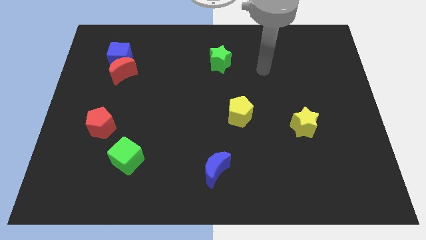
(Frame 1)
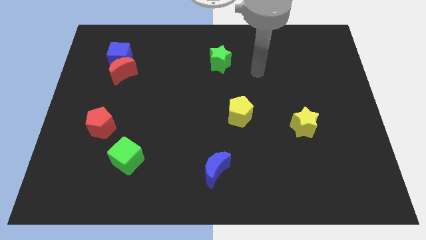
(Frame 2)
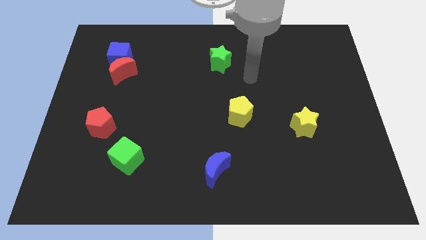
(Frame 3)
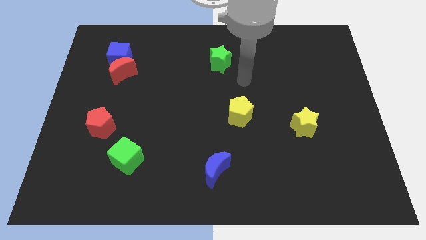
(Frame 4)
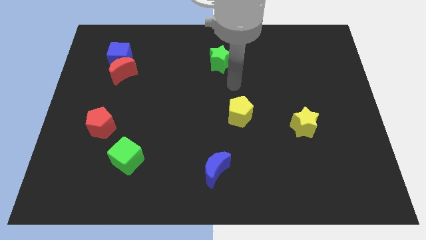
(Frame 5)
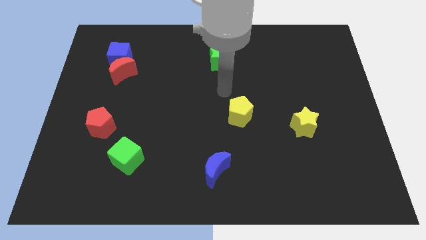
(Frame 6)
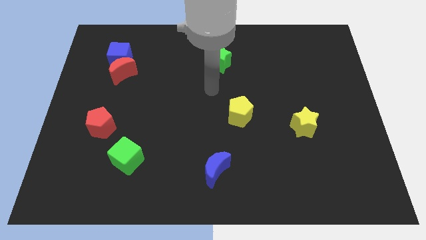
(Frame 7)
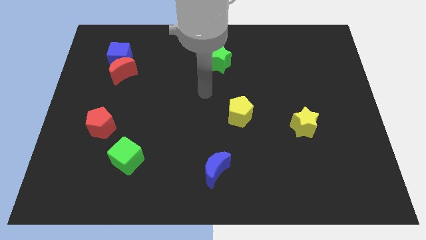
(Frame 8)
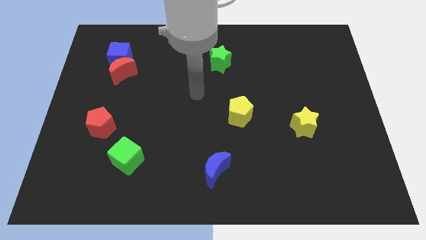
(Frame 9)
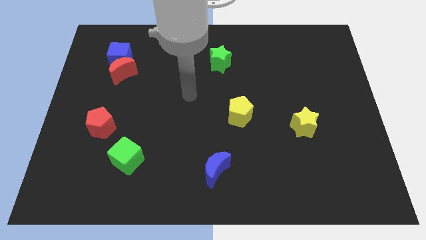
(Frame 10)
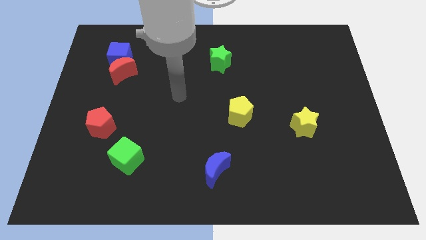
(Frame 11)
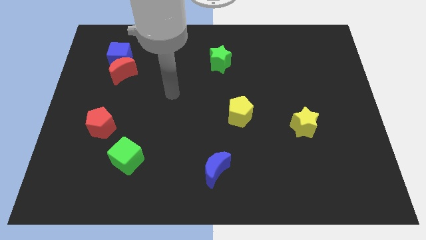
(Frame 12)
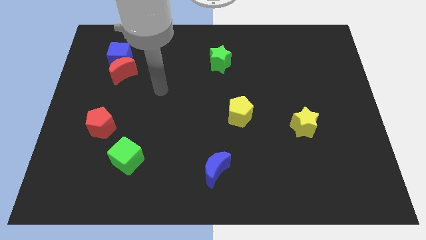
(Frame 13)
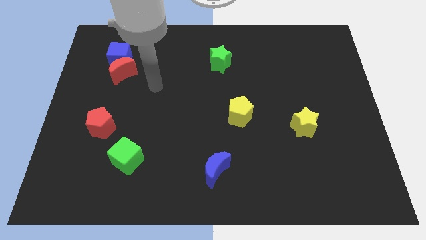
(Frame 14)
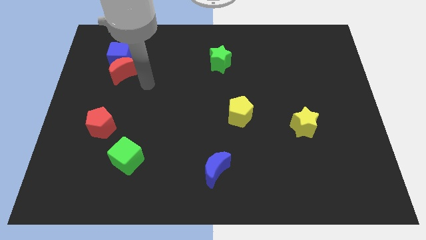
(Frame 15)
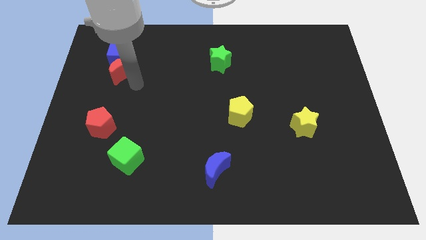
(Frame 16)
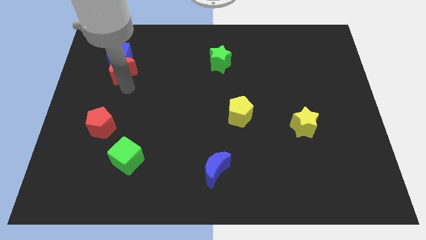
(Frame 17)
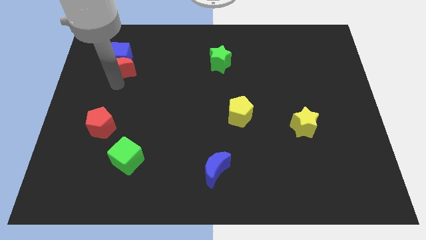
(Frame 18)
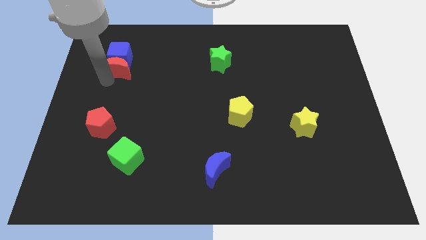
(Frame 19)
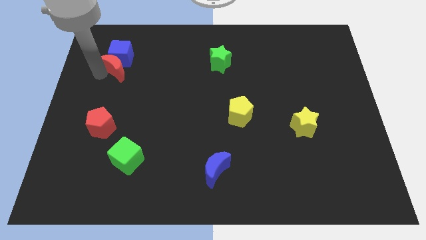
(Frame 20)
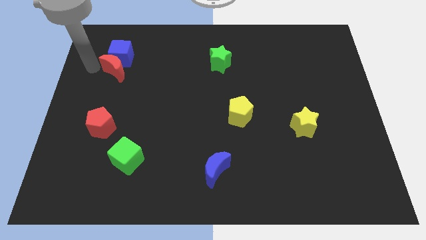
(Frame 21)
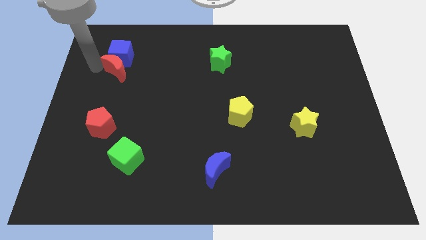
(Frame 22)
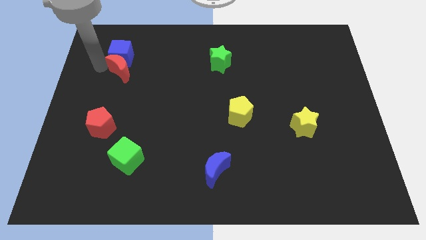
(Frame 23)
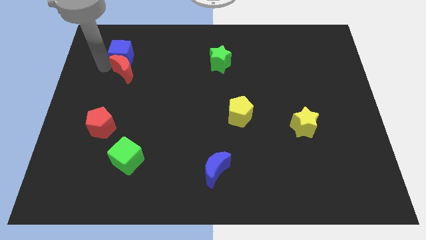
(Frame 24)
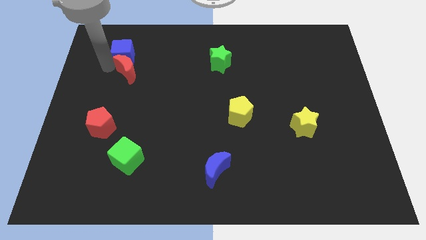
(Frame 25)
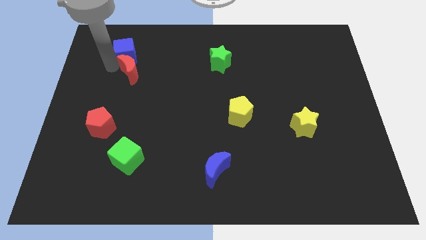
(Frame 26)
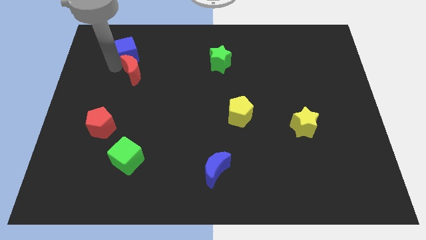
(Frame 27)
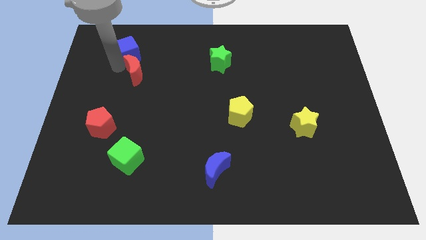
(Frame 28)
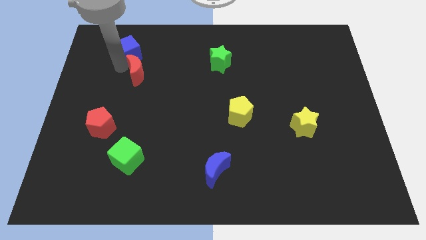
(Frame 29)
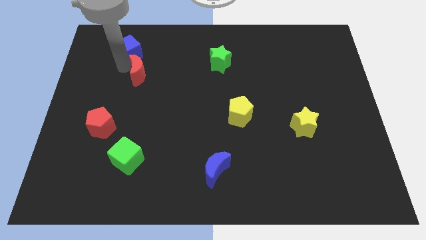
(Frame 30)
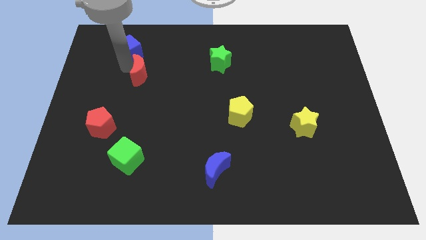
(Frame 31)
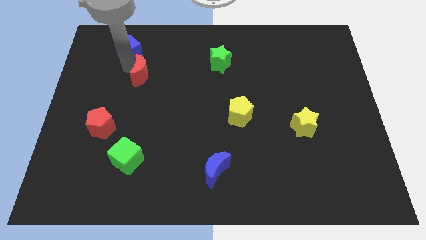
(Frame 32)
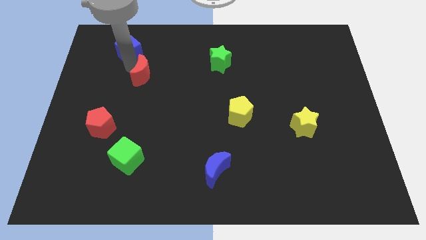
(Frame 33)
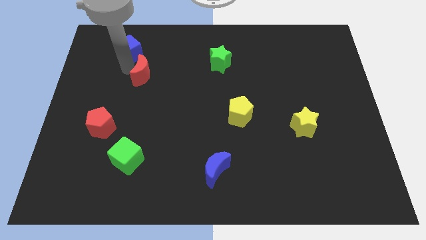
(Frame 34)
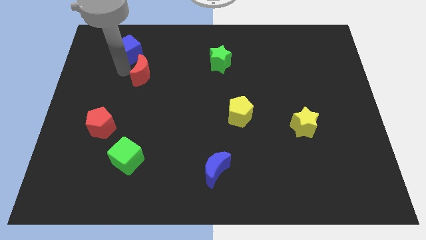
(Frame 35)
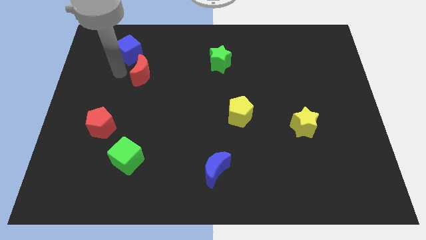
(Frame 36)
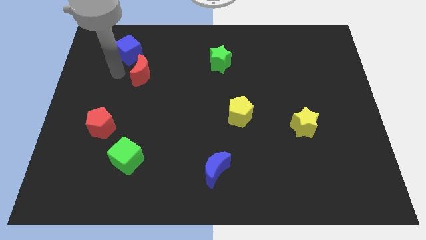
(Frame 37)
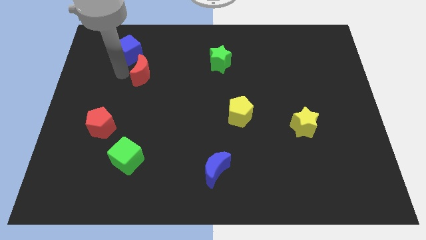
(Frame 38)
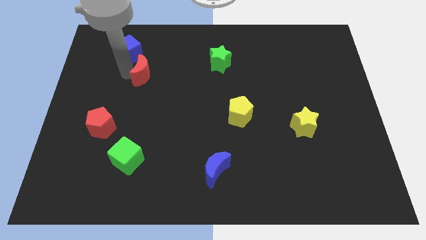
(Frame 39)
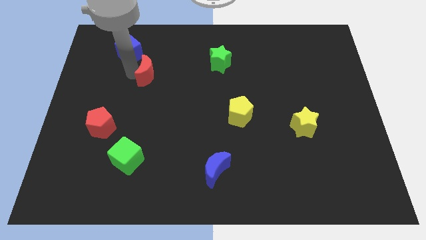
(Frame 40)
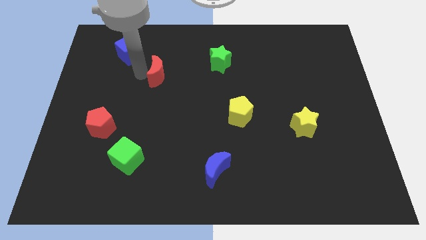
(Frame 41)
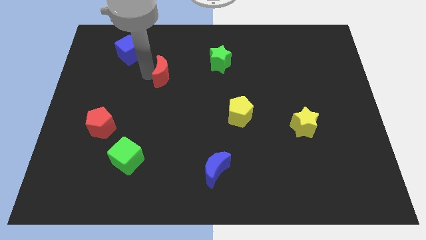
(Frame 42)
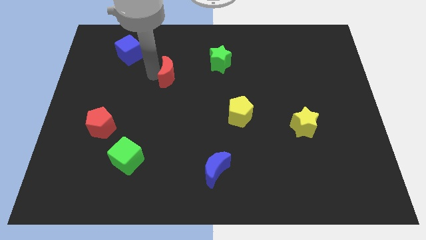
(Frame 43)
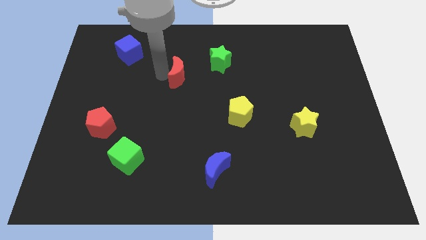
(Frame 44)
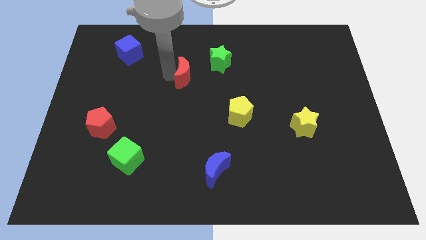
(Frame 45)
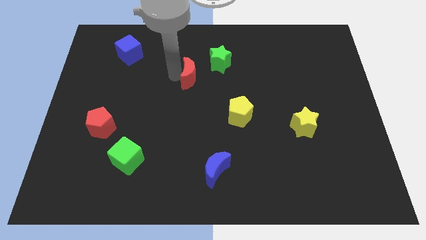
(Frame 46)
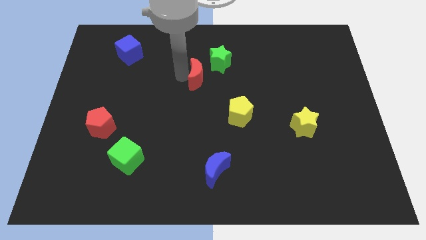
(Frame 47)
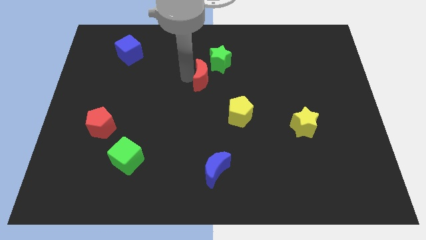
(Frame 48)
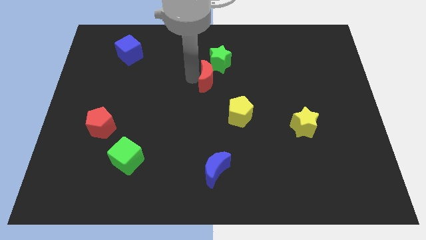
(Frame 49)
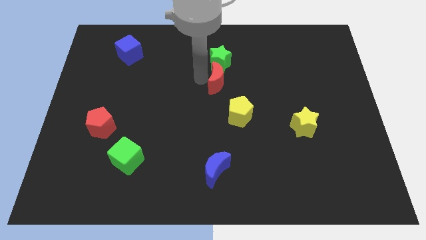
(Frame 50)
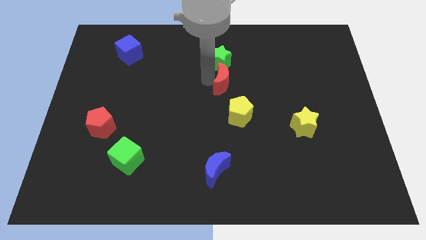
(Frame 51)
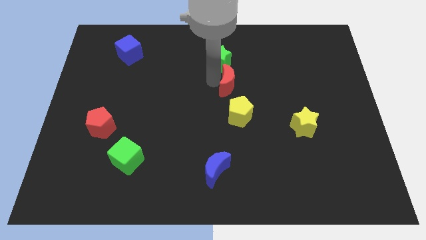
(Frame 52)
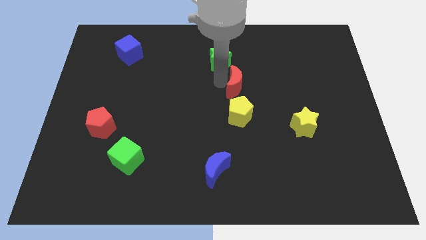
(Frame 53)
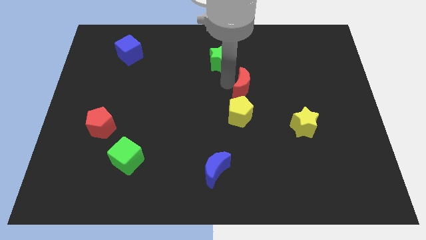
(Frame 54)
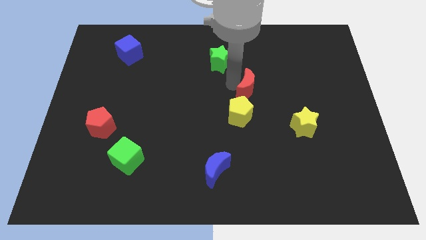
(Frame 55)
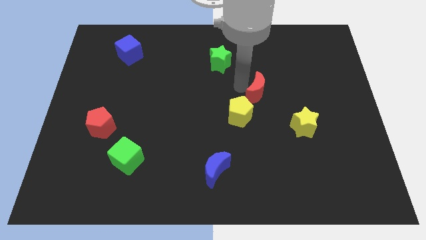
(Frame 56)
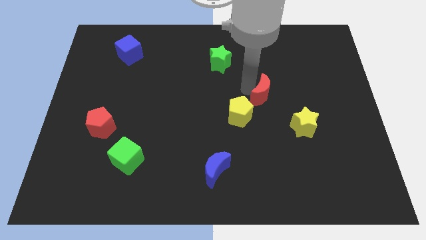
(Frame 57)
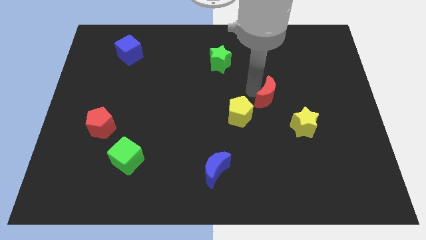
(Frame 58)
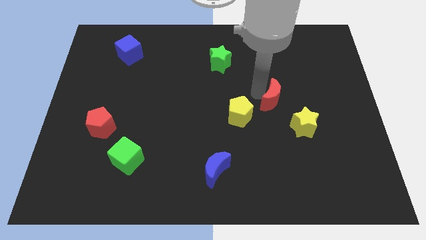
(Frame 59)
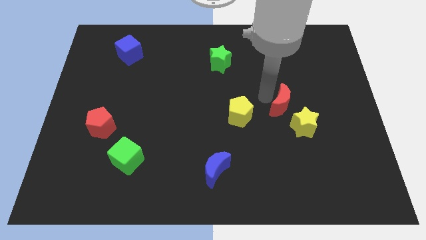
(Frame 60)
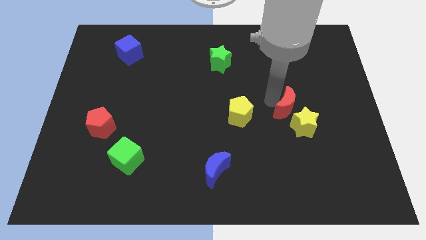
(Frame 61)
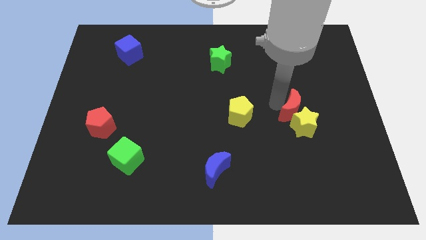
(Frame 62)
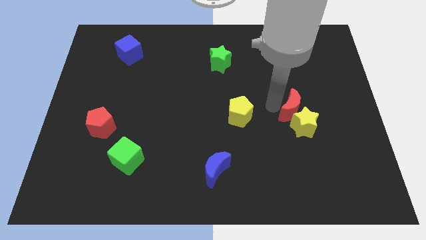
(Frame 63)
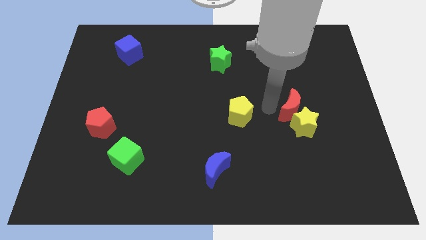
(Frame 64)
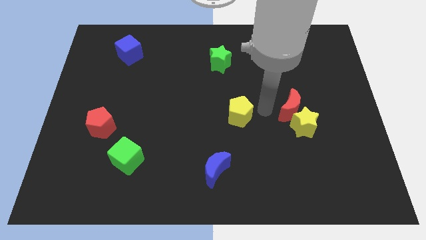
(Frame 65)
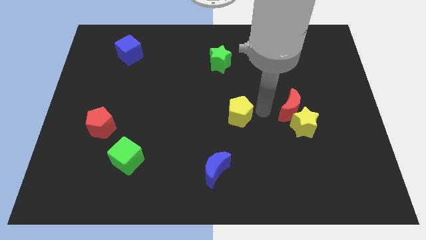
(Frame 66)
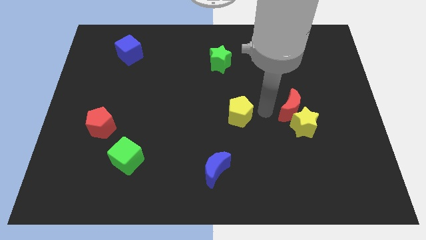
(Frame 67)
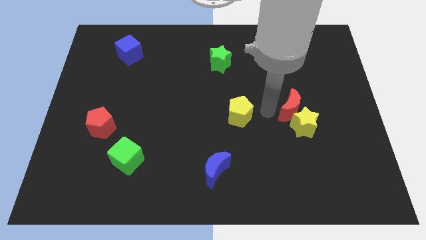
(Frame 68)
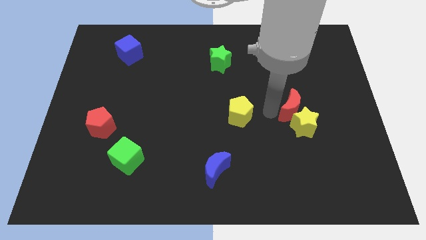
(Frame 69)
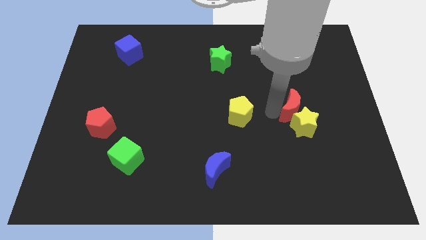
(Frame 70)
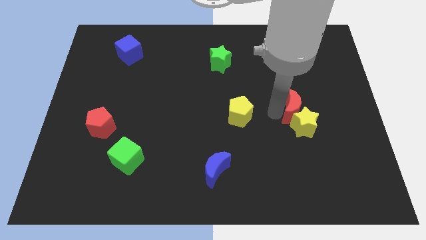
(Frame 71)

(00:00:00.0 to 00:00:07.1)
slide the red moon diagonally up and to the right of the yellow star

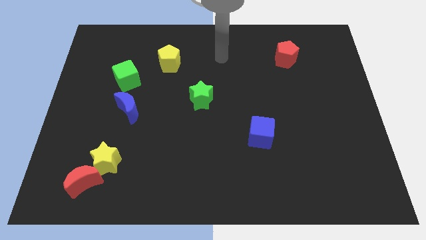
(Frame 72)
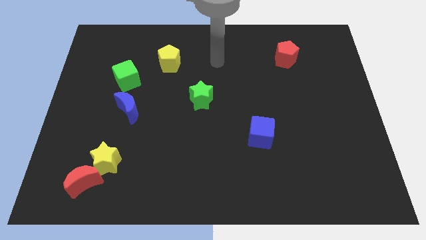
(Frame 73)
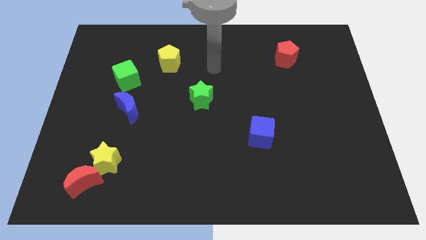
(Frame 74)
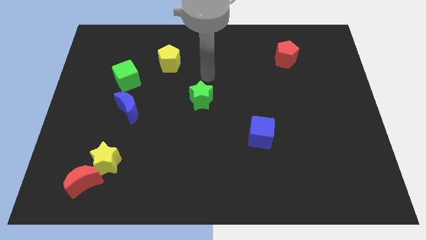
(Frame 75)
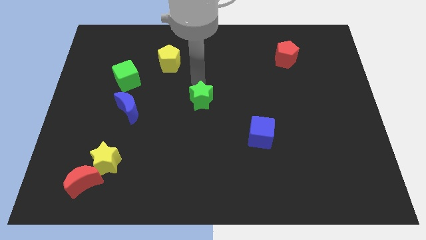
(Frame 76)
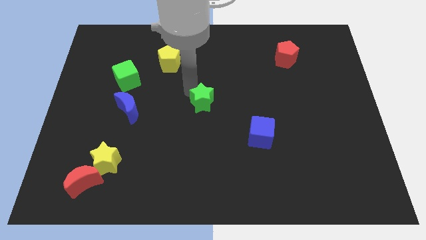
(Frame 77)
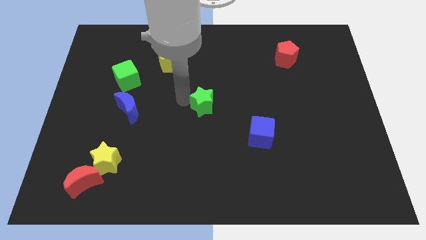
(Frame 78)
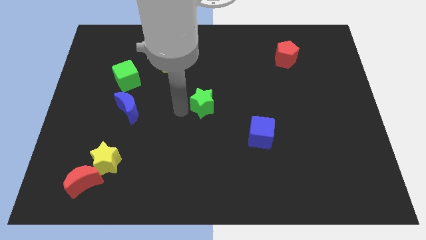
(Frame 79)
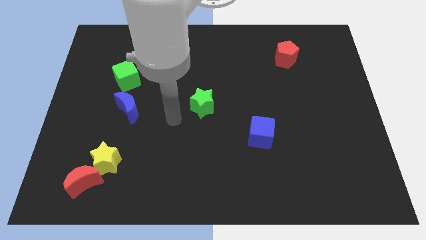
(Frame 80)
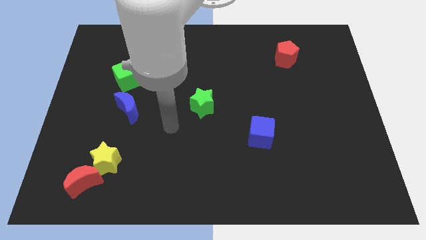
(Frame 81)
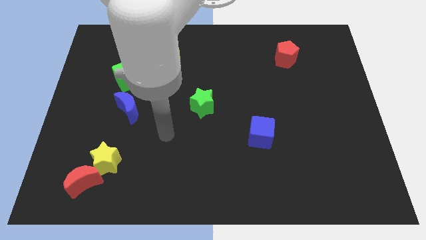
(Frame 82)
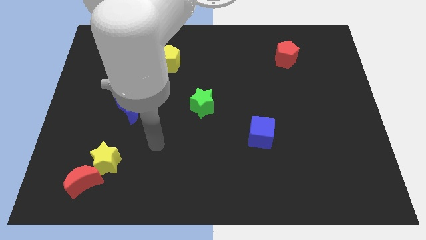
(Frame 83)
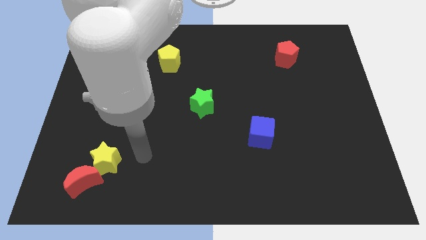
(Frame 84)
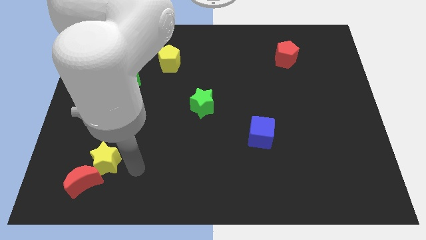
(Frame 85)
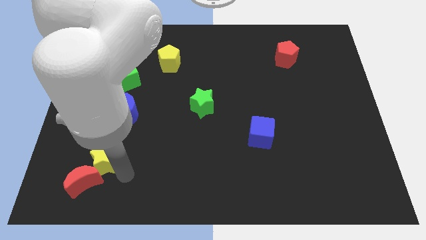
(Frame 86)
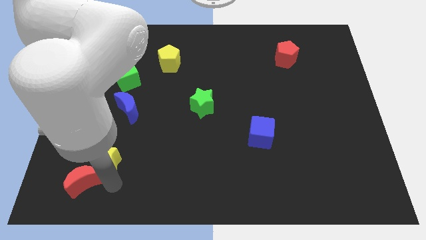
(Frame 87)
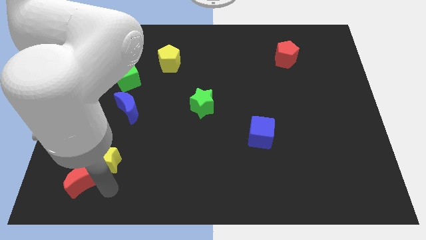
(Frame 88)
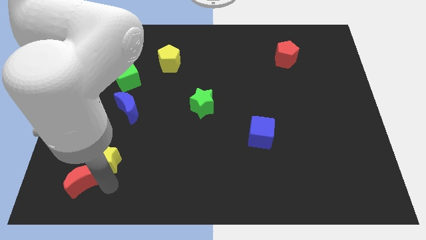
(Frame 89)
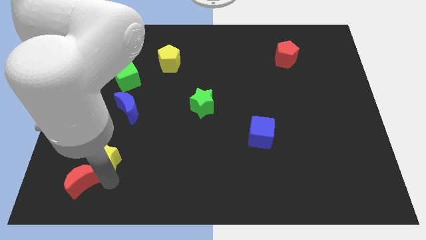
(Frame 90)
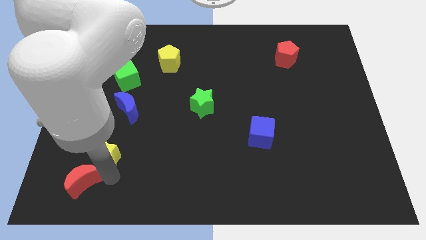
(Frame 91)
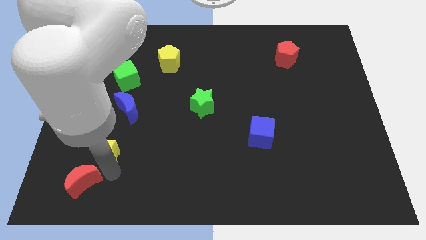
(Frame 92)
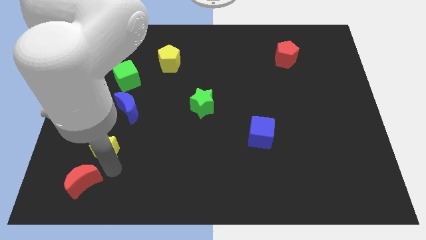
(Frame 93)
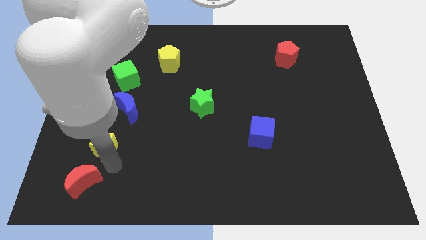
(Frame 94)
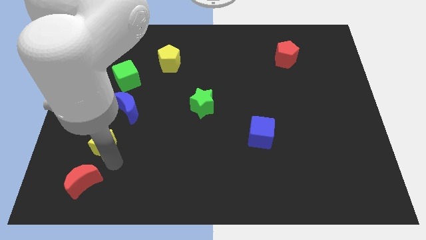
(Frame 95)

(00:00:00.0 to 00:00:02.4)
put the yellow star diagonally down and to the left of the blue moon
